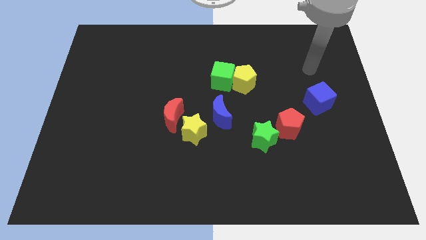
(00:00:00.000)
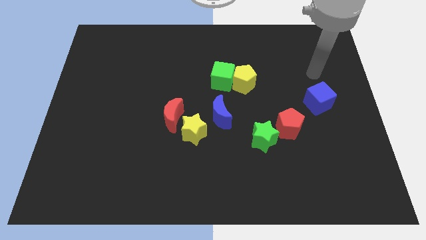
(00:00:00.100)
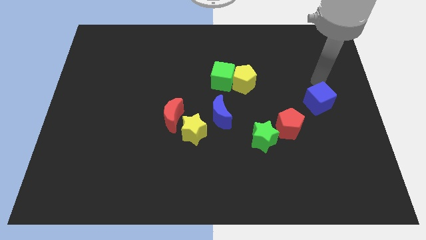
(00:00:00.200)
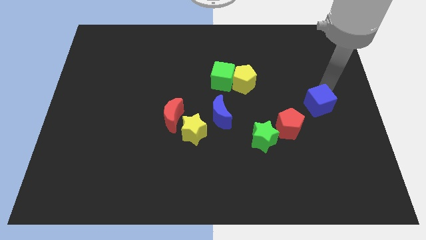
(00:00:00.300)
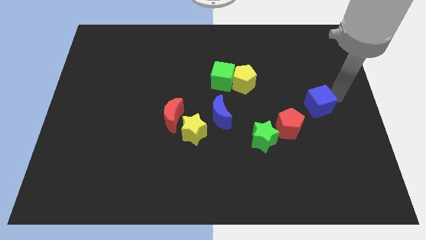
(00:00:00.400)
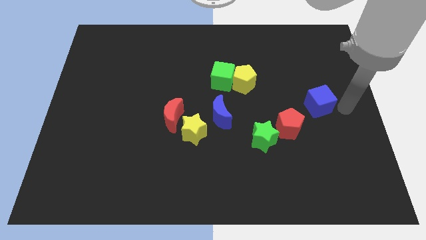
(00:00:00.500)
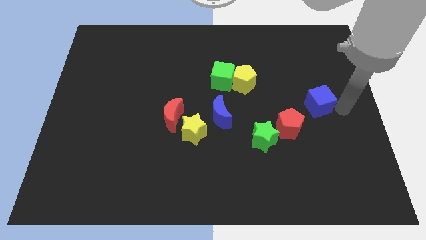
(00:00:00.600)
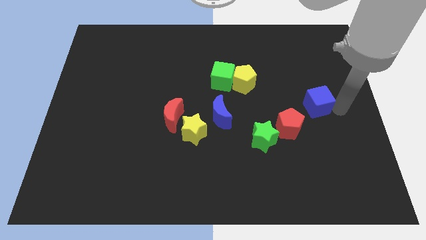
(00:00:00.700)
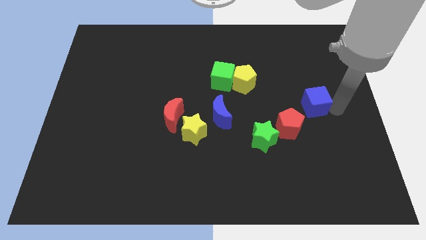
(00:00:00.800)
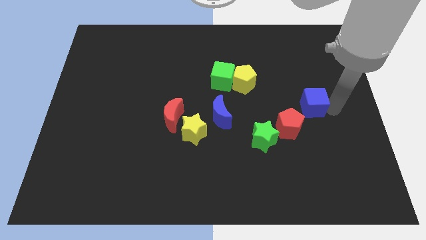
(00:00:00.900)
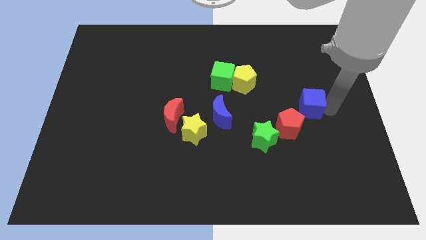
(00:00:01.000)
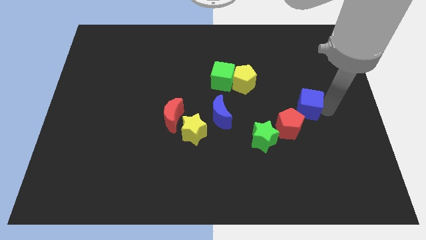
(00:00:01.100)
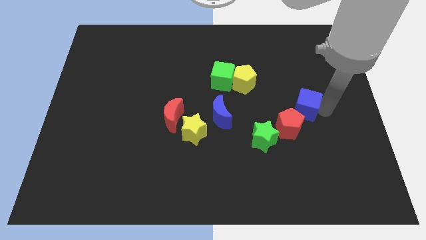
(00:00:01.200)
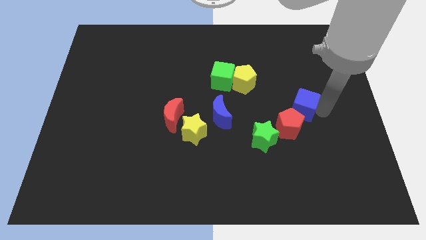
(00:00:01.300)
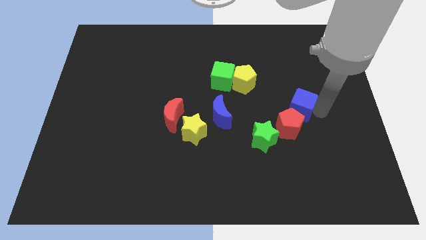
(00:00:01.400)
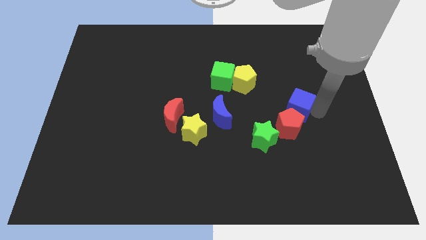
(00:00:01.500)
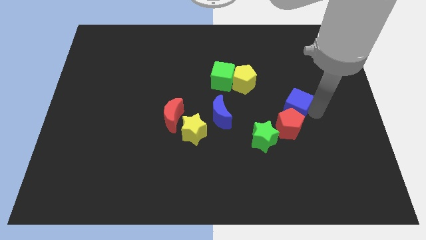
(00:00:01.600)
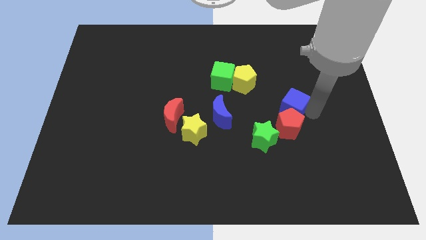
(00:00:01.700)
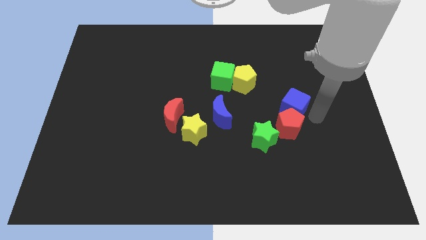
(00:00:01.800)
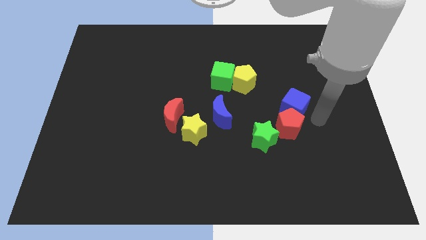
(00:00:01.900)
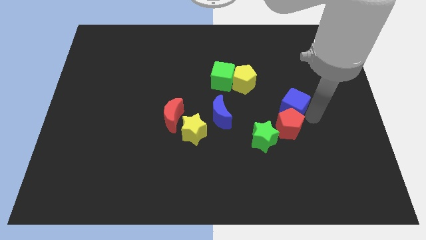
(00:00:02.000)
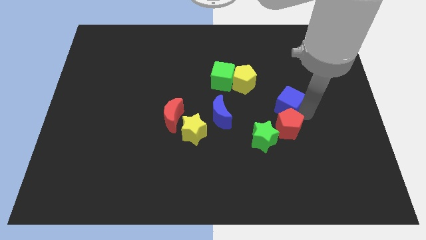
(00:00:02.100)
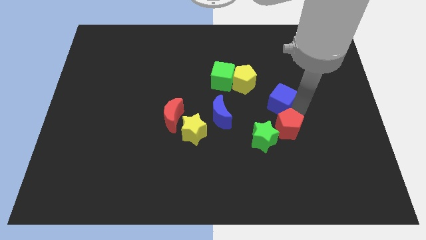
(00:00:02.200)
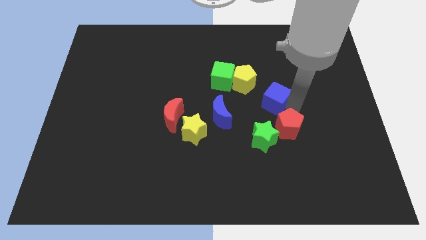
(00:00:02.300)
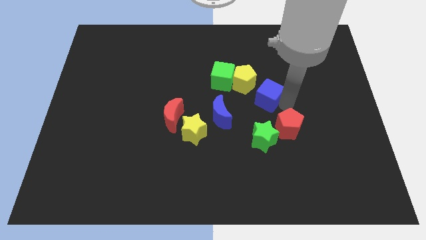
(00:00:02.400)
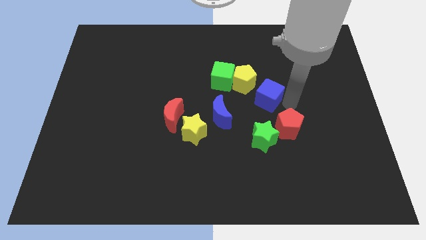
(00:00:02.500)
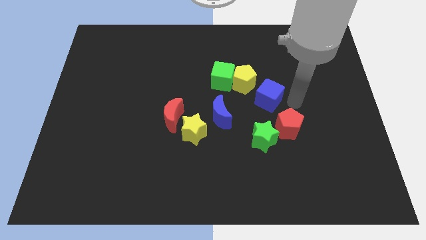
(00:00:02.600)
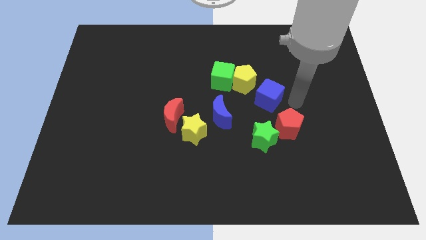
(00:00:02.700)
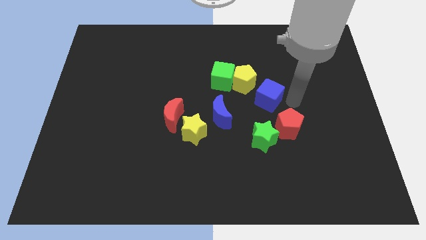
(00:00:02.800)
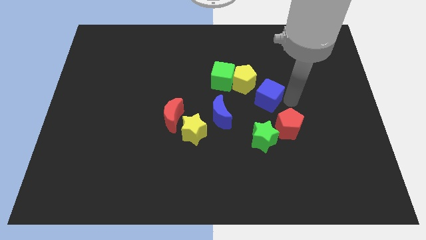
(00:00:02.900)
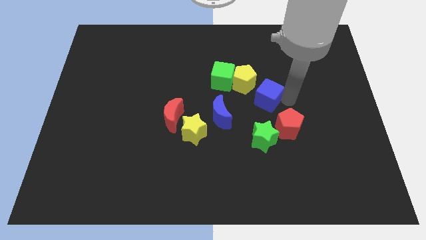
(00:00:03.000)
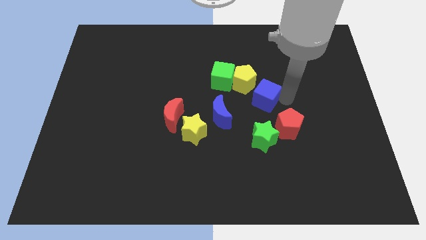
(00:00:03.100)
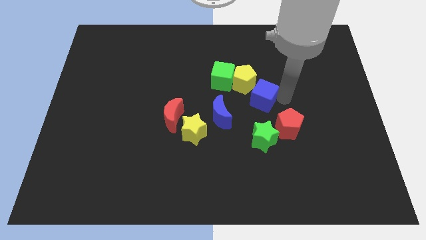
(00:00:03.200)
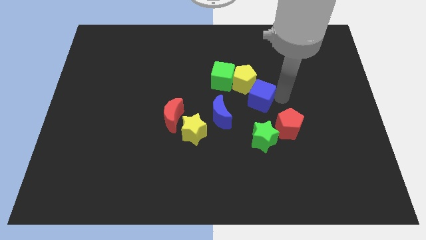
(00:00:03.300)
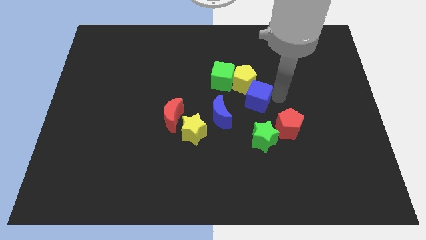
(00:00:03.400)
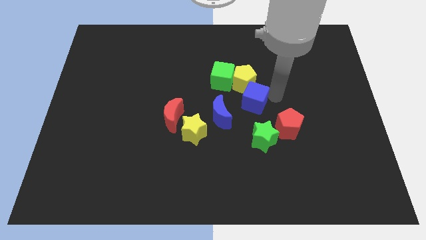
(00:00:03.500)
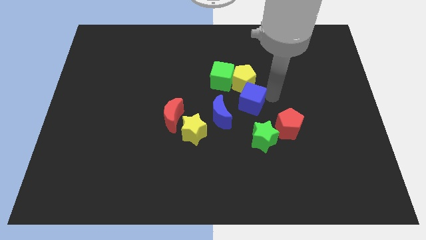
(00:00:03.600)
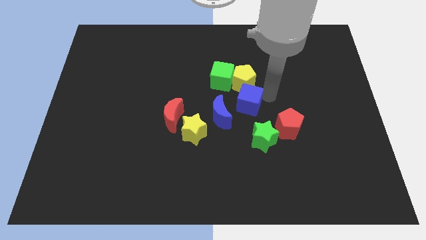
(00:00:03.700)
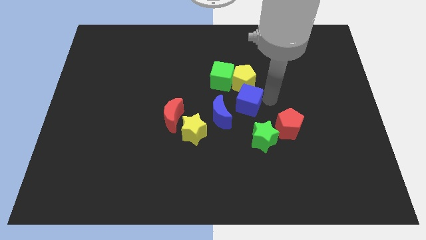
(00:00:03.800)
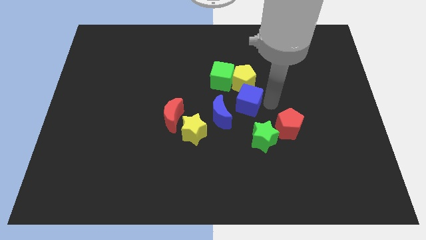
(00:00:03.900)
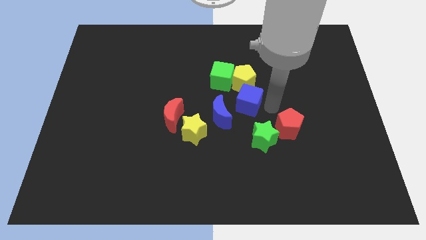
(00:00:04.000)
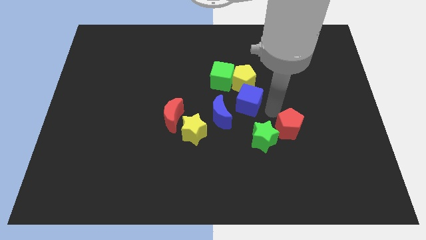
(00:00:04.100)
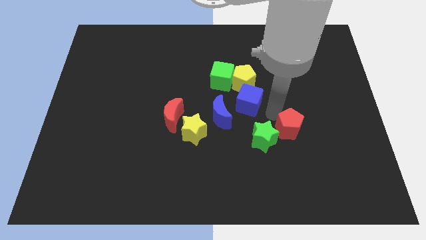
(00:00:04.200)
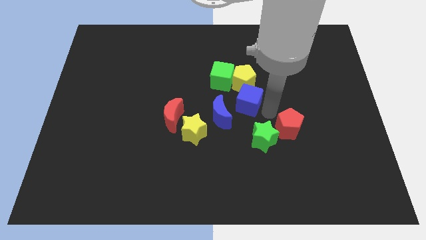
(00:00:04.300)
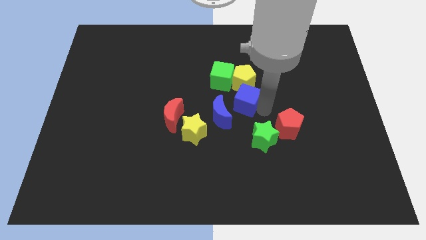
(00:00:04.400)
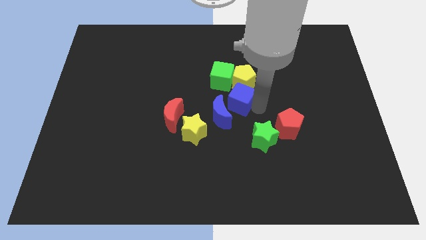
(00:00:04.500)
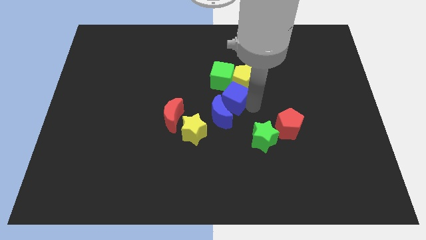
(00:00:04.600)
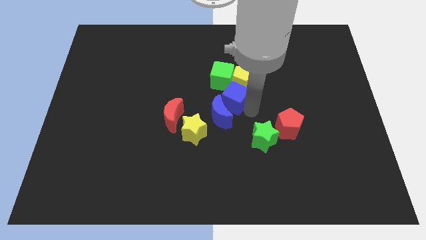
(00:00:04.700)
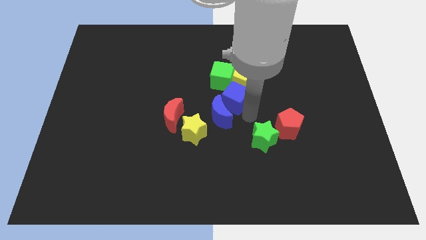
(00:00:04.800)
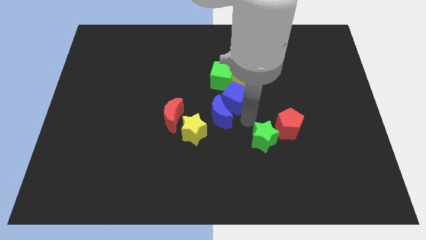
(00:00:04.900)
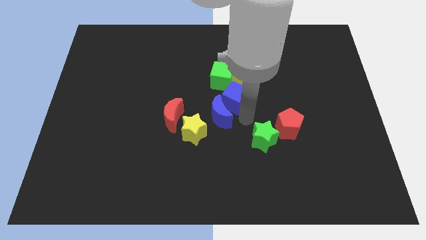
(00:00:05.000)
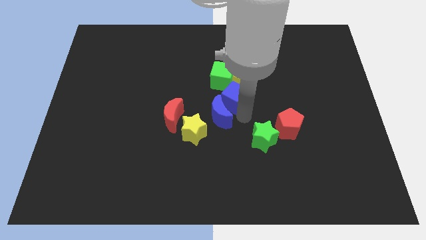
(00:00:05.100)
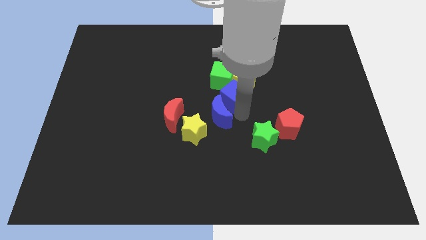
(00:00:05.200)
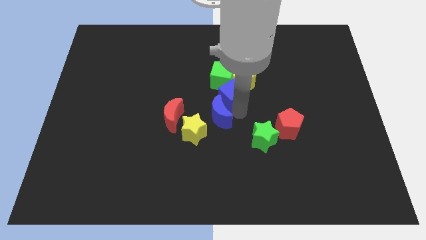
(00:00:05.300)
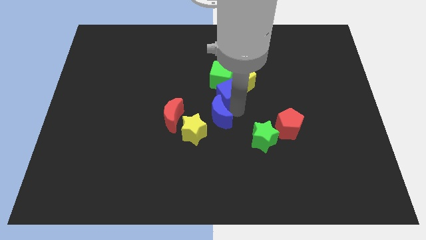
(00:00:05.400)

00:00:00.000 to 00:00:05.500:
move the blue cube close to the green cube

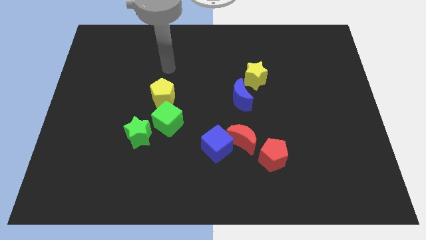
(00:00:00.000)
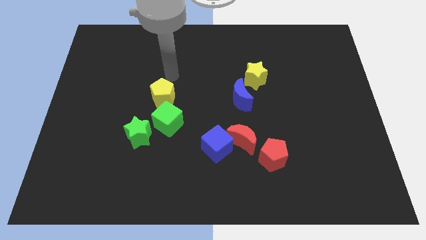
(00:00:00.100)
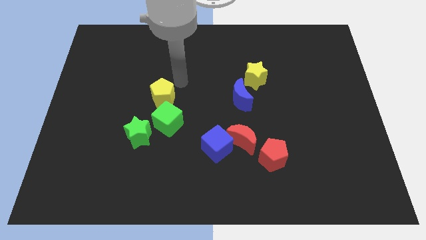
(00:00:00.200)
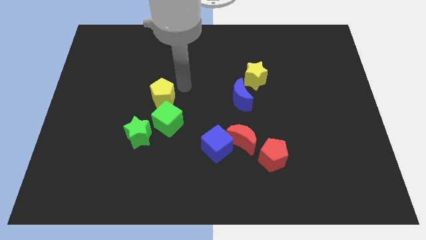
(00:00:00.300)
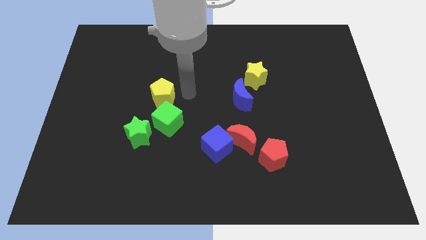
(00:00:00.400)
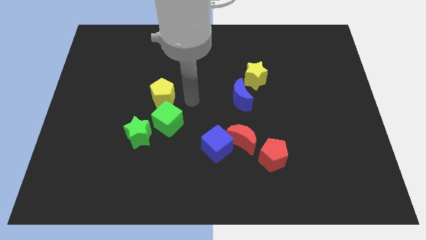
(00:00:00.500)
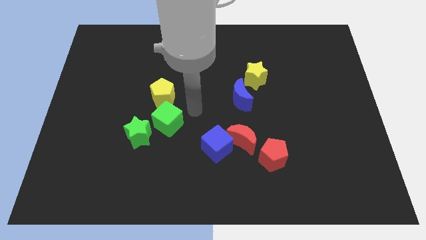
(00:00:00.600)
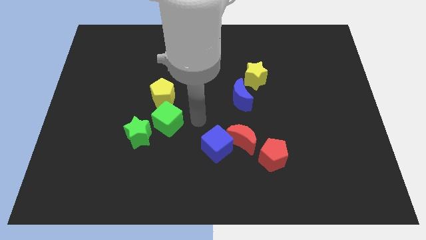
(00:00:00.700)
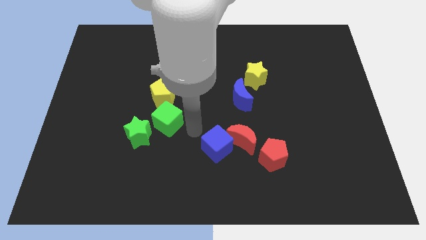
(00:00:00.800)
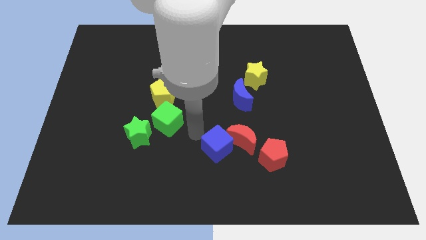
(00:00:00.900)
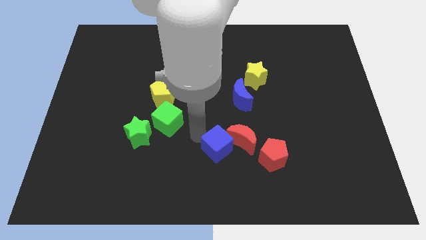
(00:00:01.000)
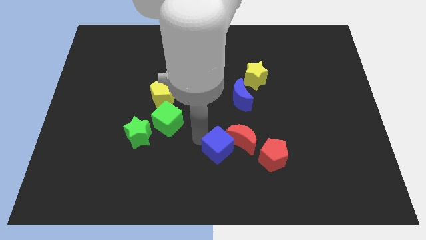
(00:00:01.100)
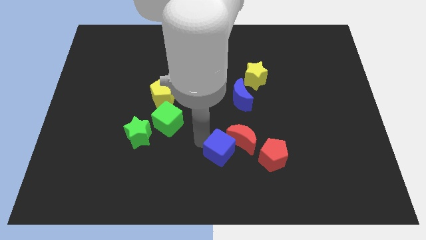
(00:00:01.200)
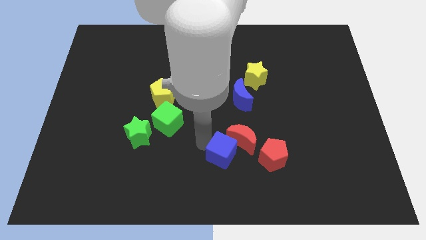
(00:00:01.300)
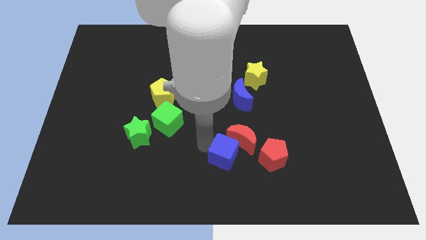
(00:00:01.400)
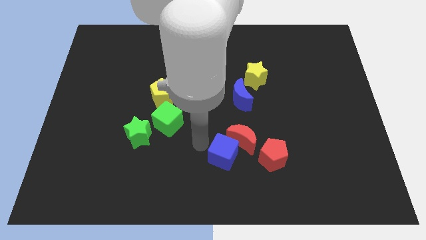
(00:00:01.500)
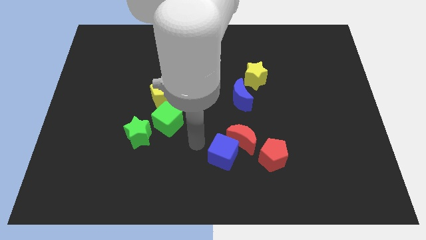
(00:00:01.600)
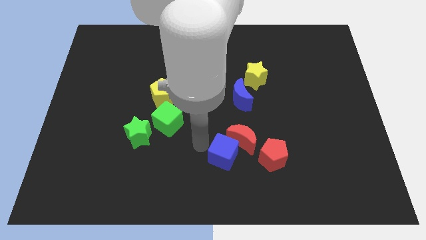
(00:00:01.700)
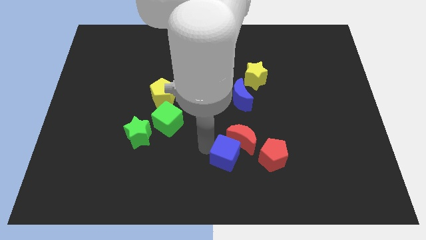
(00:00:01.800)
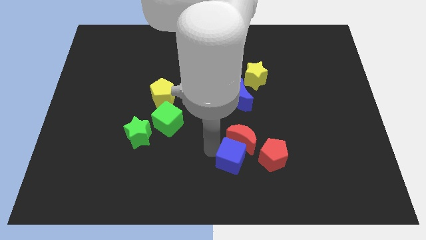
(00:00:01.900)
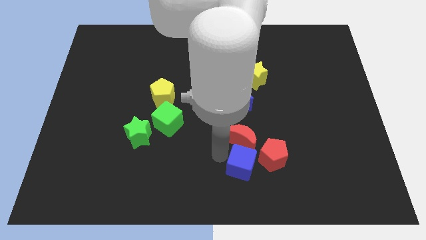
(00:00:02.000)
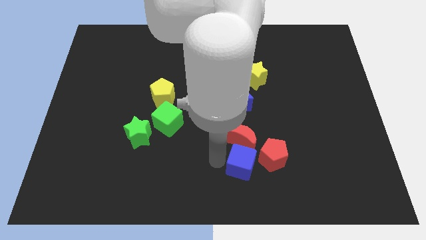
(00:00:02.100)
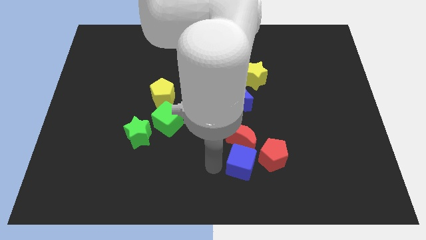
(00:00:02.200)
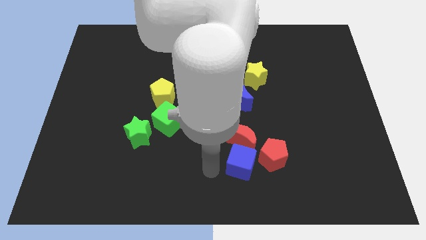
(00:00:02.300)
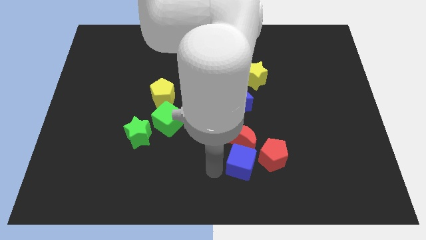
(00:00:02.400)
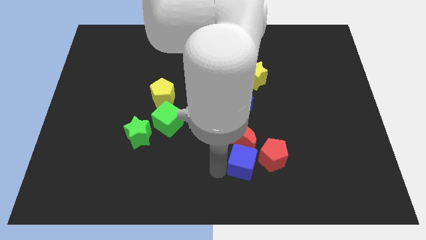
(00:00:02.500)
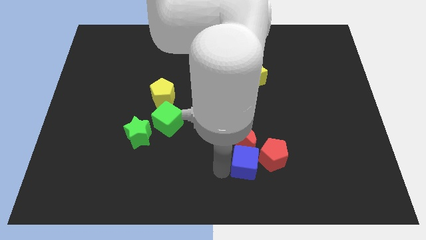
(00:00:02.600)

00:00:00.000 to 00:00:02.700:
slide the blue cube towards the red pentagon
